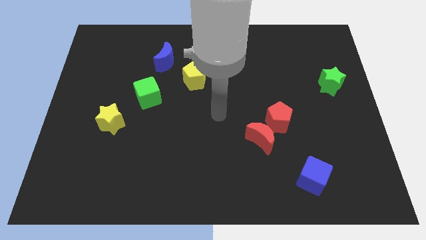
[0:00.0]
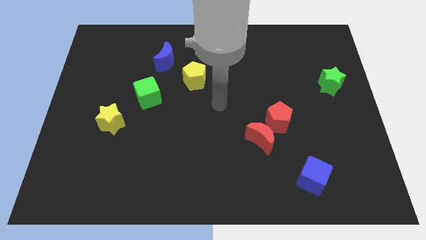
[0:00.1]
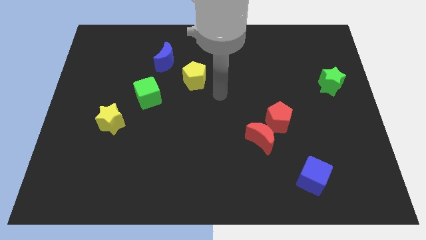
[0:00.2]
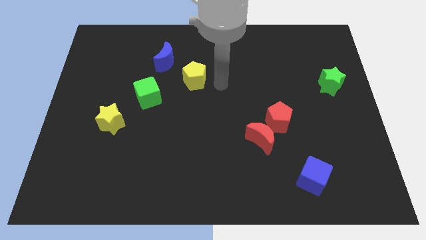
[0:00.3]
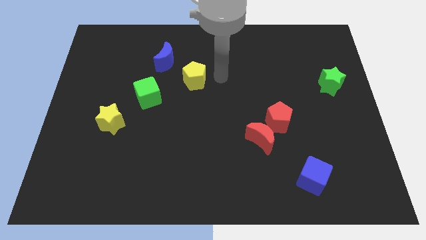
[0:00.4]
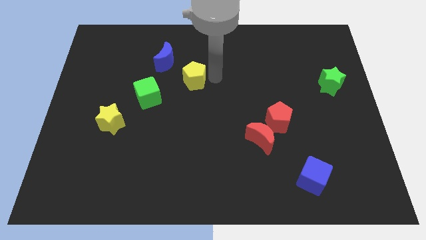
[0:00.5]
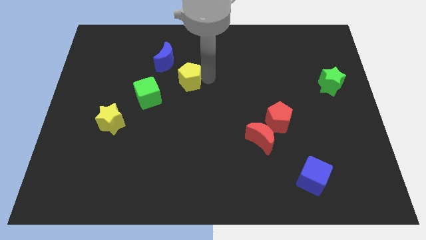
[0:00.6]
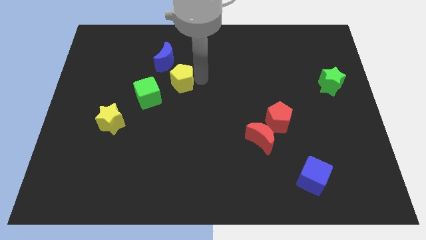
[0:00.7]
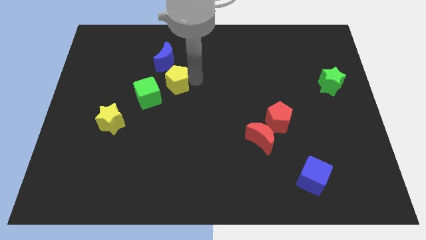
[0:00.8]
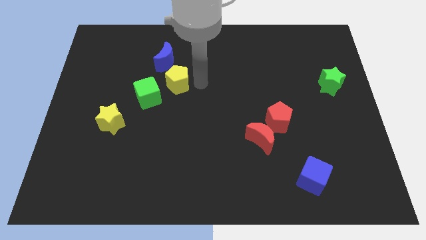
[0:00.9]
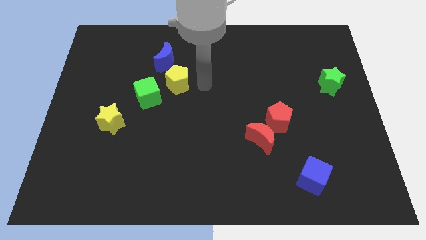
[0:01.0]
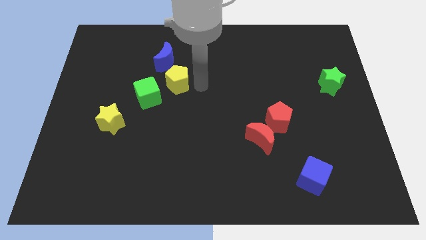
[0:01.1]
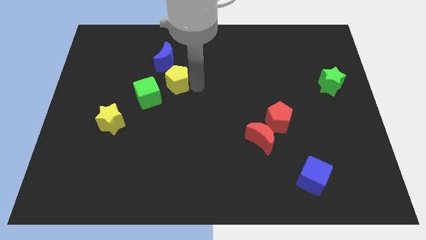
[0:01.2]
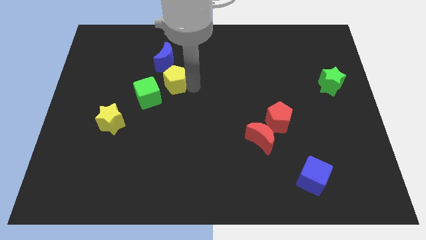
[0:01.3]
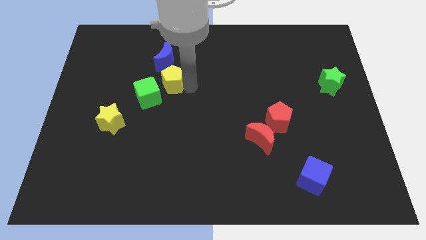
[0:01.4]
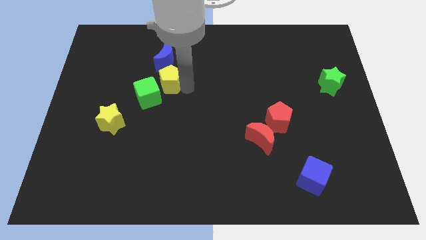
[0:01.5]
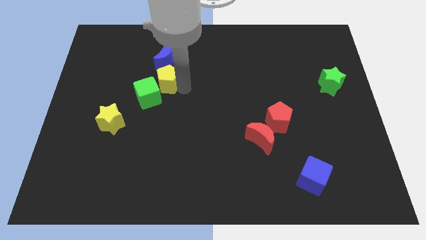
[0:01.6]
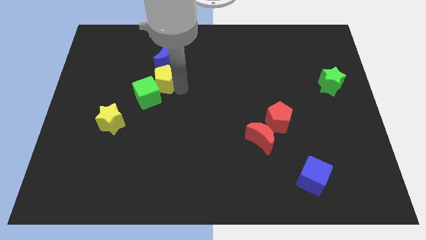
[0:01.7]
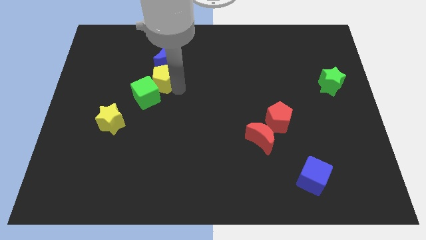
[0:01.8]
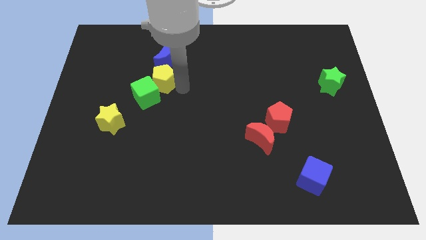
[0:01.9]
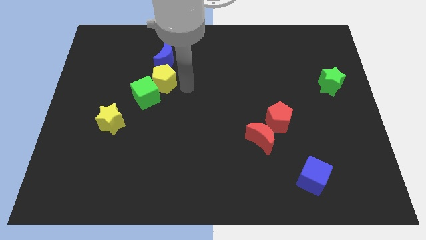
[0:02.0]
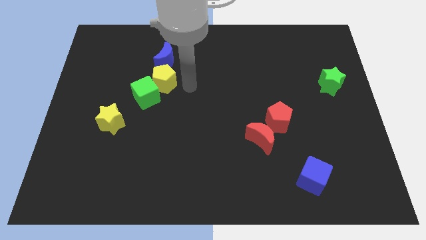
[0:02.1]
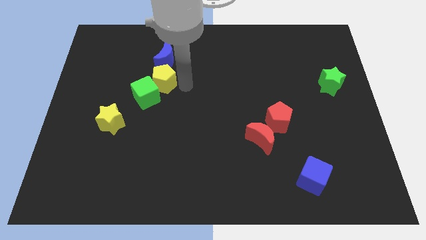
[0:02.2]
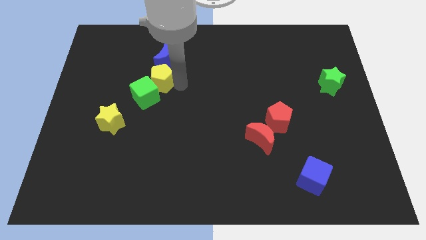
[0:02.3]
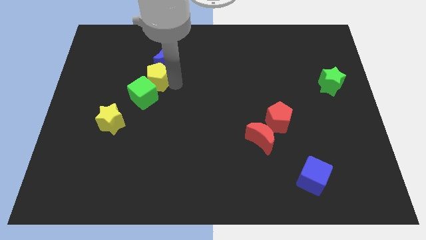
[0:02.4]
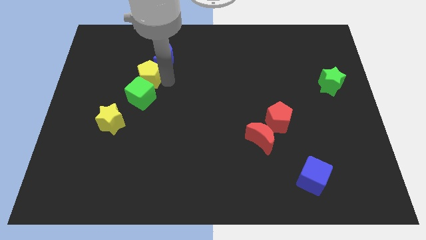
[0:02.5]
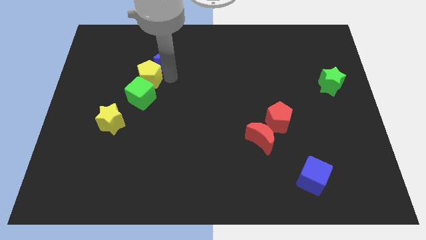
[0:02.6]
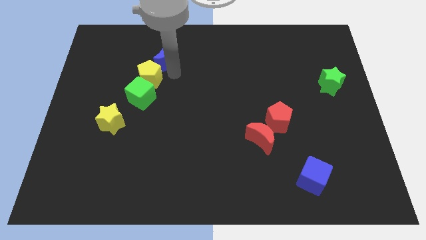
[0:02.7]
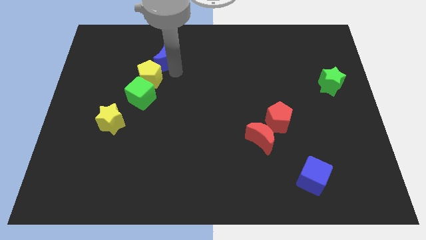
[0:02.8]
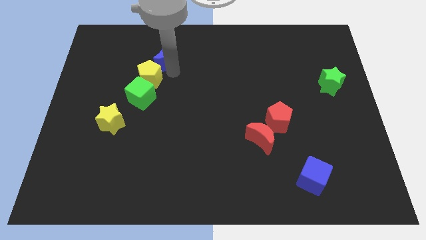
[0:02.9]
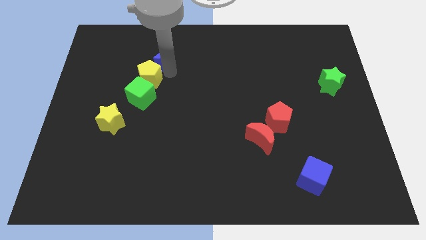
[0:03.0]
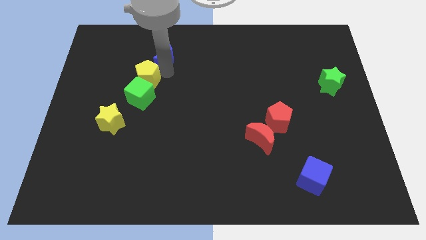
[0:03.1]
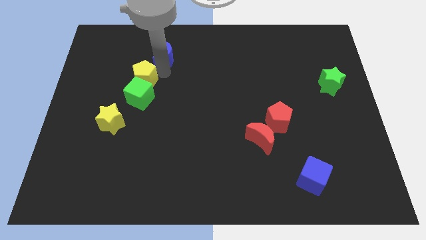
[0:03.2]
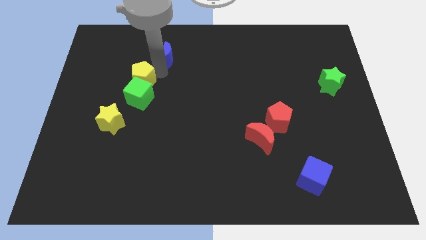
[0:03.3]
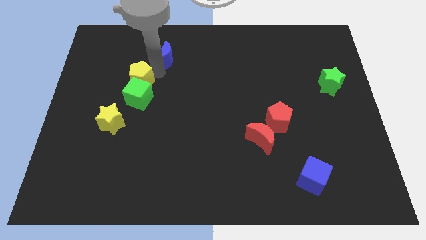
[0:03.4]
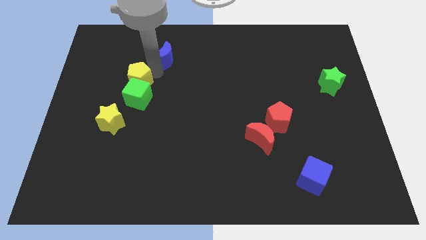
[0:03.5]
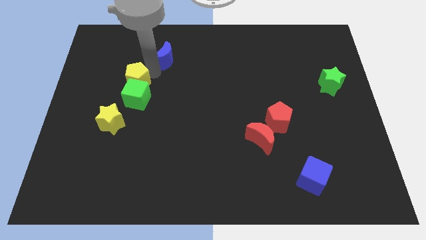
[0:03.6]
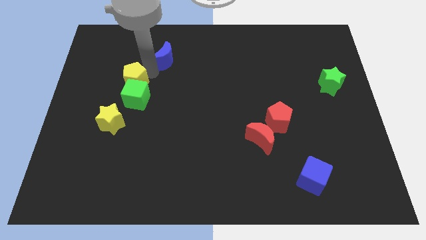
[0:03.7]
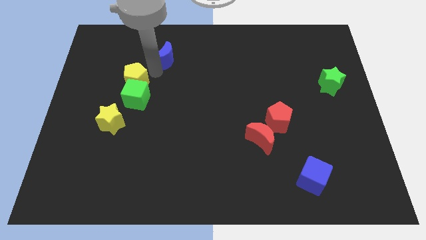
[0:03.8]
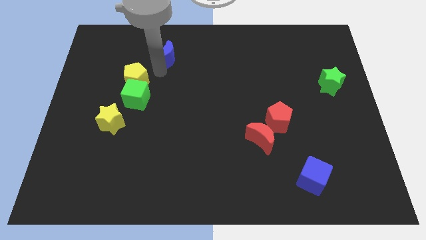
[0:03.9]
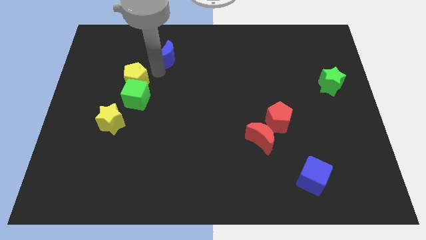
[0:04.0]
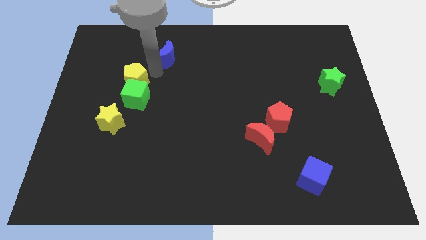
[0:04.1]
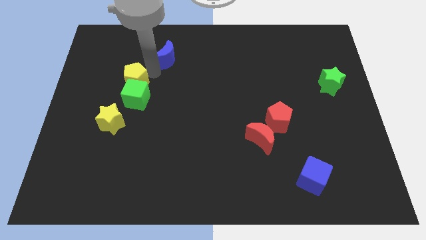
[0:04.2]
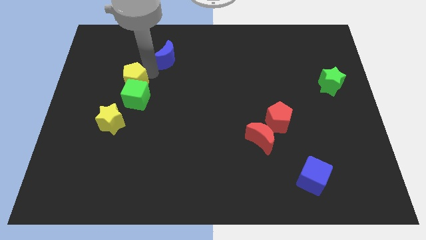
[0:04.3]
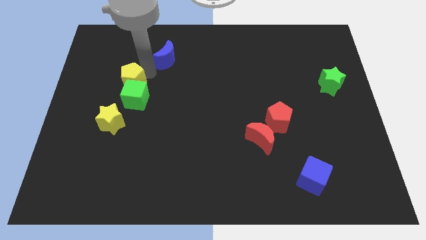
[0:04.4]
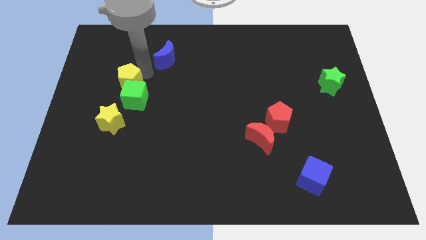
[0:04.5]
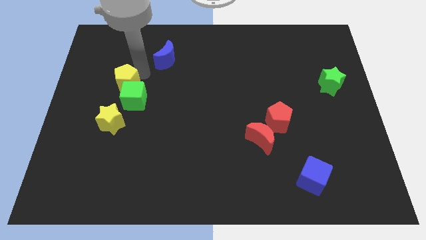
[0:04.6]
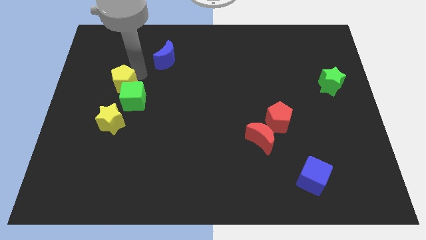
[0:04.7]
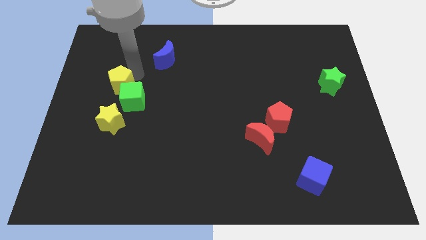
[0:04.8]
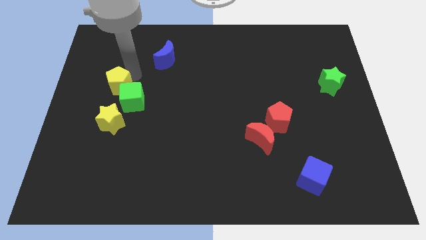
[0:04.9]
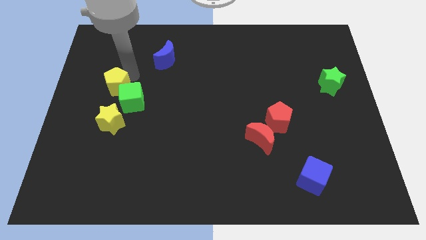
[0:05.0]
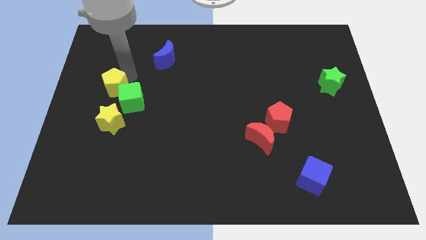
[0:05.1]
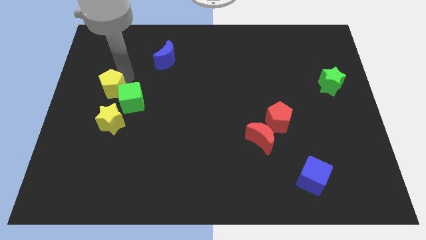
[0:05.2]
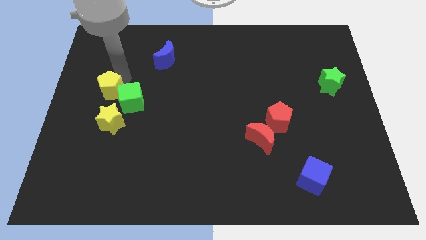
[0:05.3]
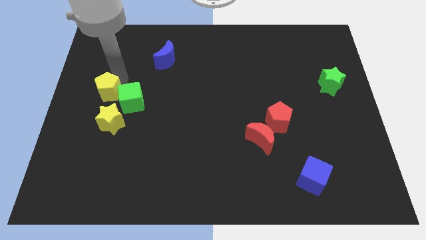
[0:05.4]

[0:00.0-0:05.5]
put the yellow pentagon to the top left of the yellow star

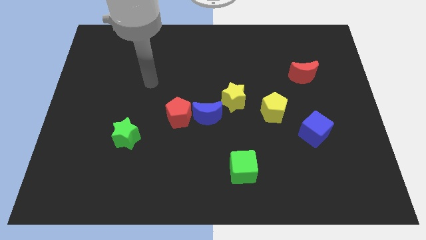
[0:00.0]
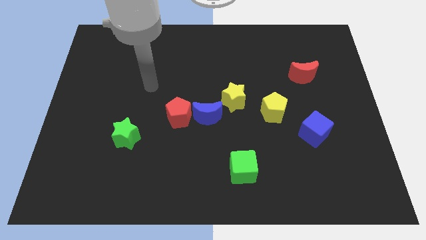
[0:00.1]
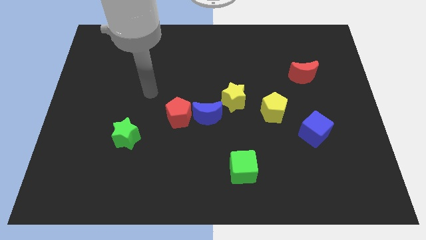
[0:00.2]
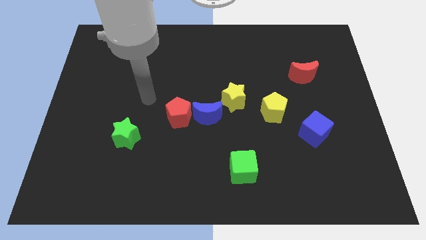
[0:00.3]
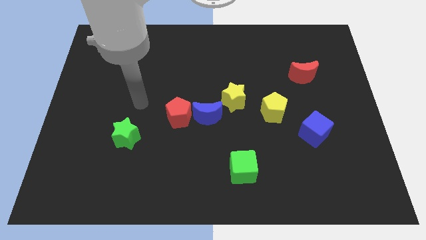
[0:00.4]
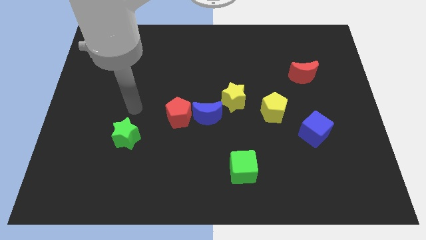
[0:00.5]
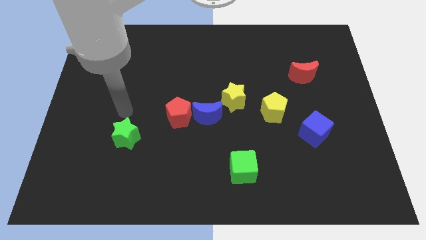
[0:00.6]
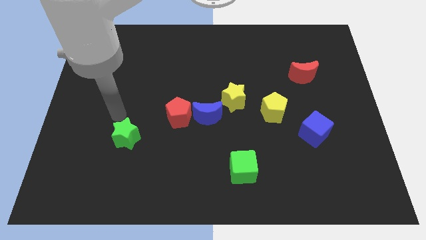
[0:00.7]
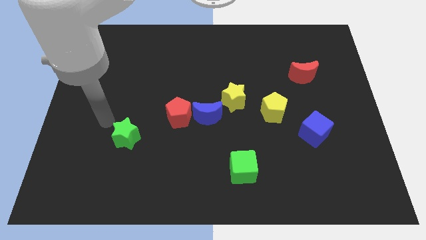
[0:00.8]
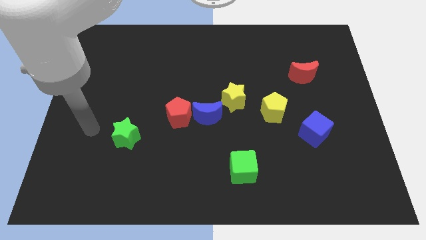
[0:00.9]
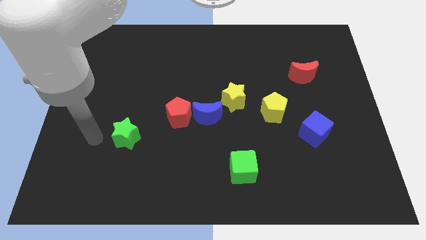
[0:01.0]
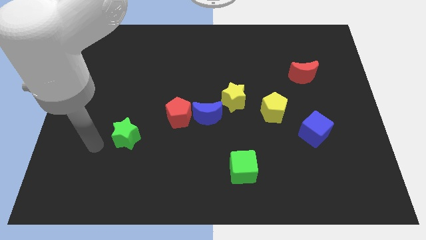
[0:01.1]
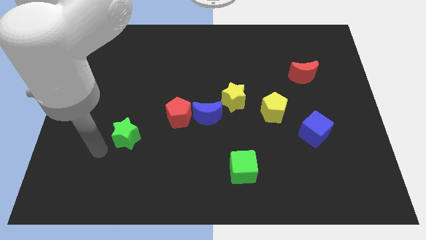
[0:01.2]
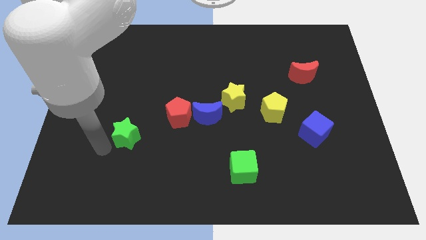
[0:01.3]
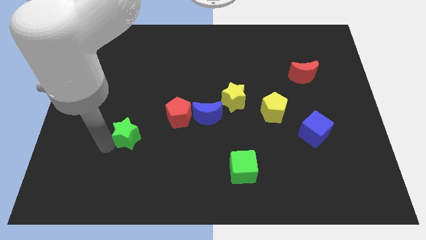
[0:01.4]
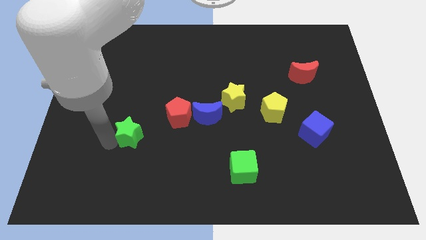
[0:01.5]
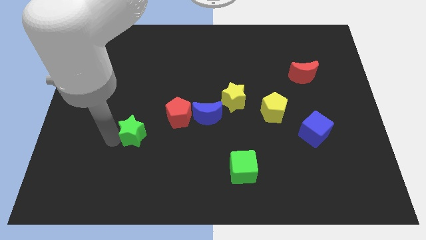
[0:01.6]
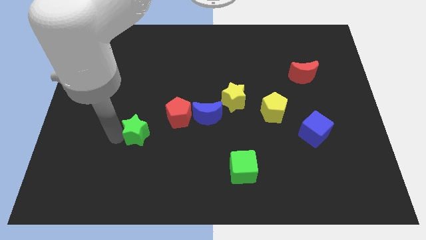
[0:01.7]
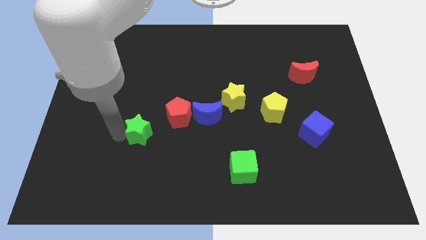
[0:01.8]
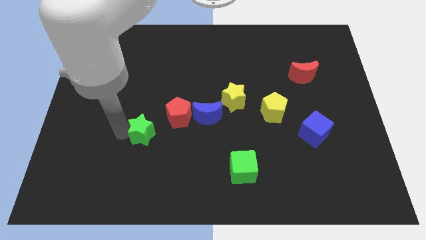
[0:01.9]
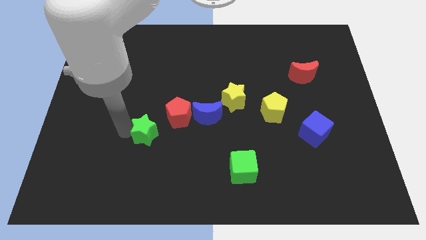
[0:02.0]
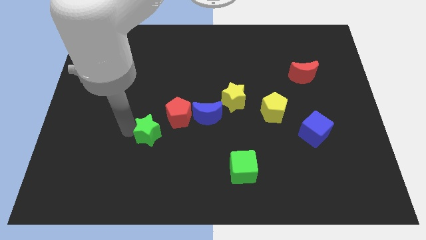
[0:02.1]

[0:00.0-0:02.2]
put the green star left of the blue moon

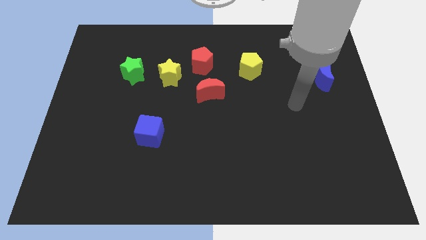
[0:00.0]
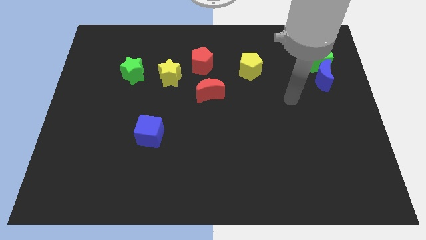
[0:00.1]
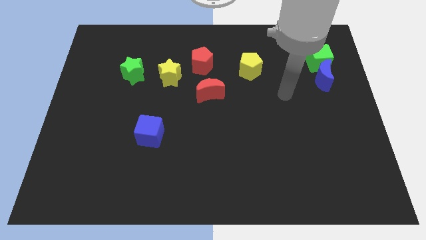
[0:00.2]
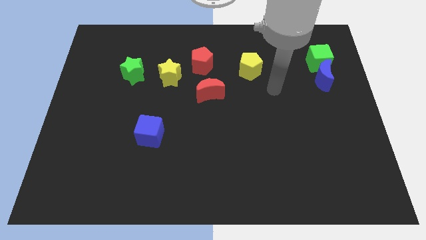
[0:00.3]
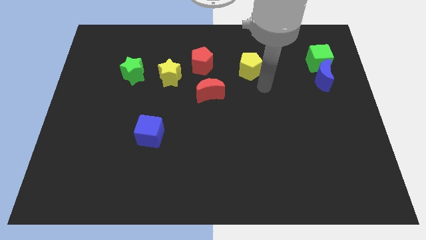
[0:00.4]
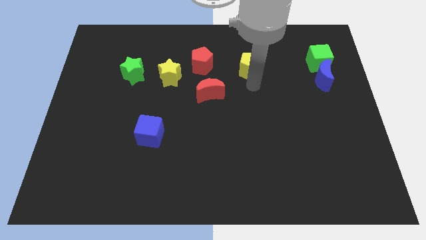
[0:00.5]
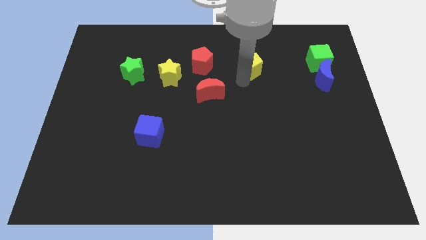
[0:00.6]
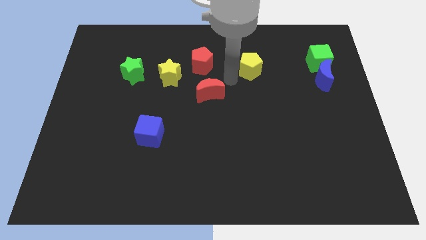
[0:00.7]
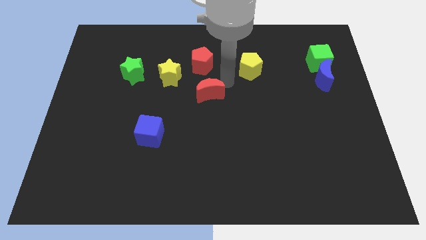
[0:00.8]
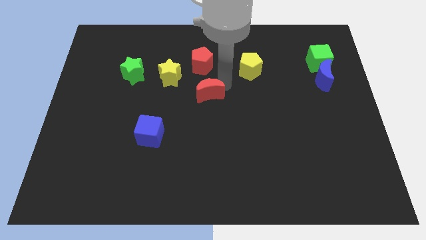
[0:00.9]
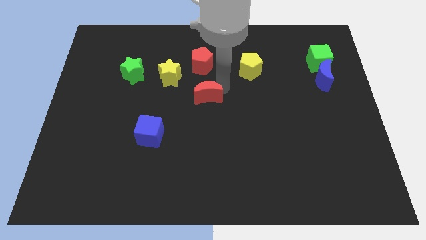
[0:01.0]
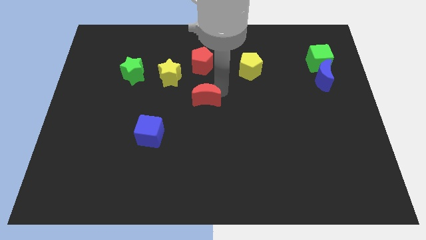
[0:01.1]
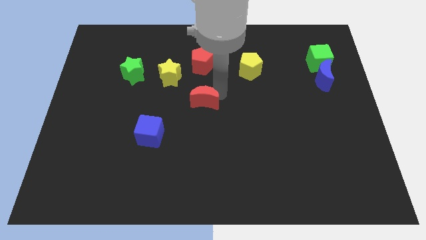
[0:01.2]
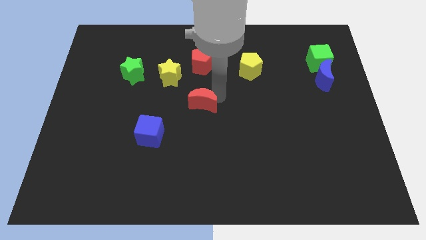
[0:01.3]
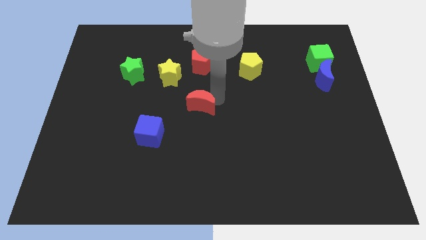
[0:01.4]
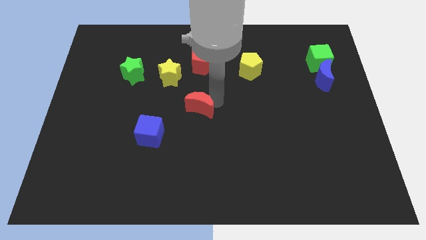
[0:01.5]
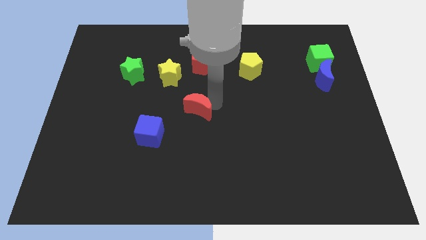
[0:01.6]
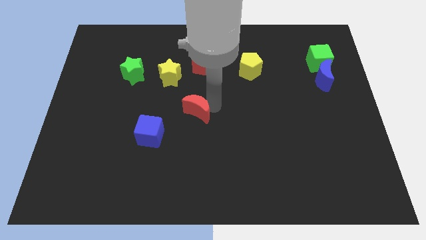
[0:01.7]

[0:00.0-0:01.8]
push the red moon diagonally up and to the right of the blue cube
